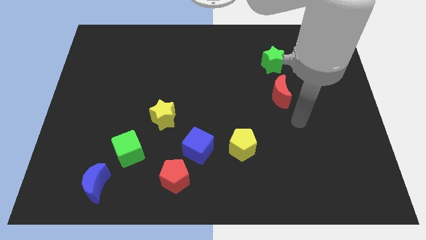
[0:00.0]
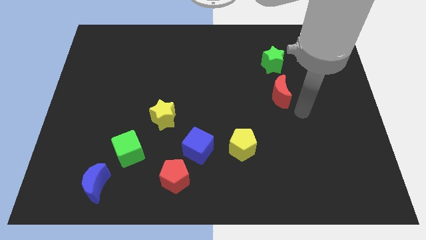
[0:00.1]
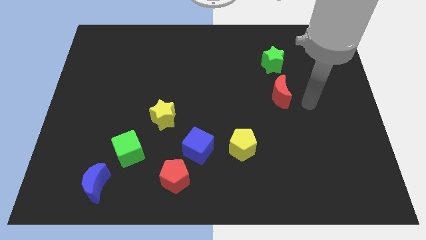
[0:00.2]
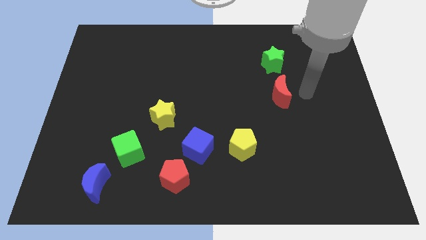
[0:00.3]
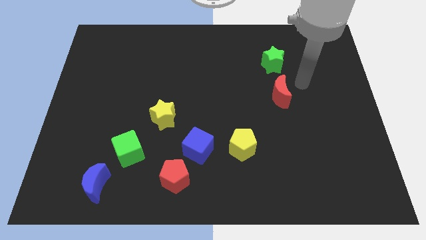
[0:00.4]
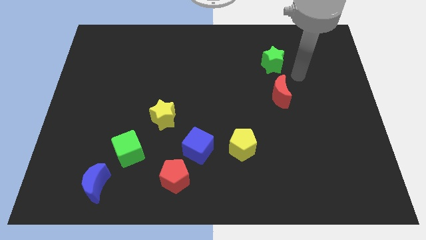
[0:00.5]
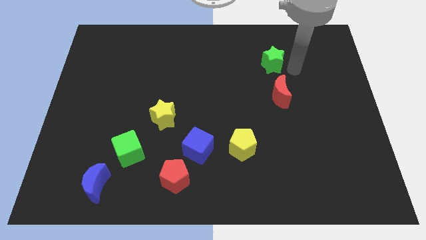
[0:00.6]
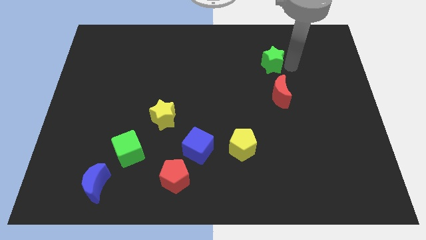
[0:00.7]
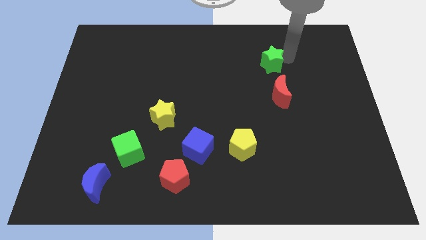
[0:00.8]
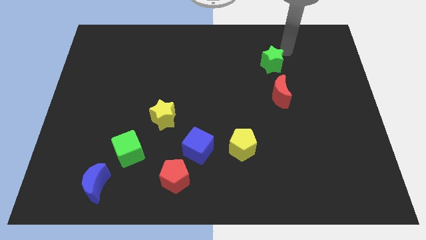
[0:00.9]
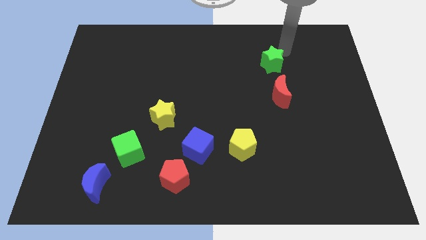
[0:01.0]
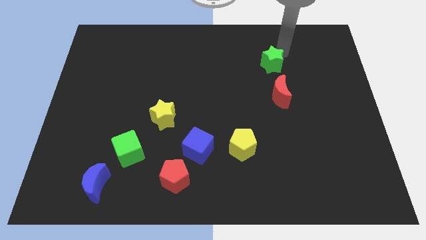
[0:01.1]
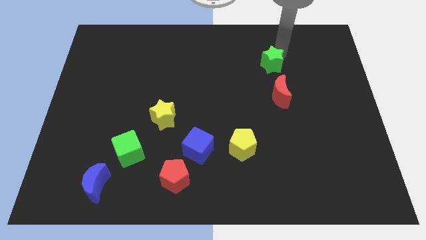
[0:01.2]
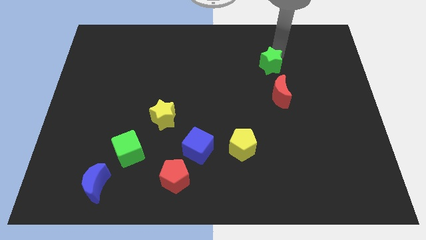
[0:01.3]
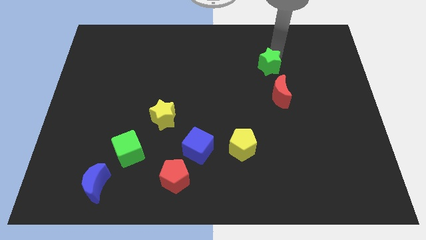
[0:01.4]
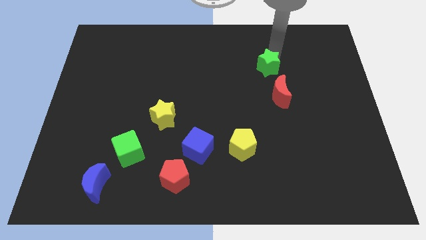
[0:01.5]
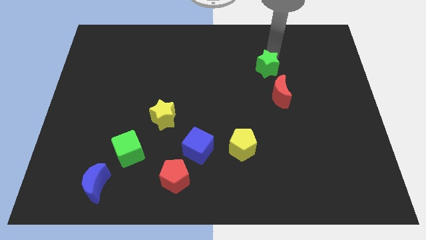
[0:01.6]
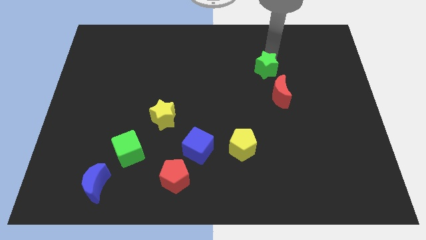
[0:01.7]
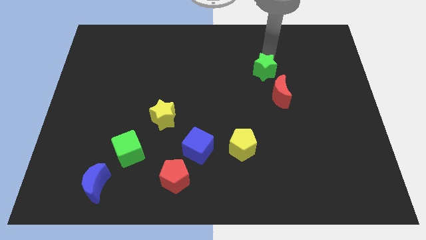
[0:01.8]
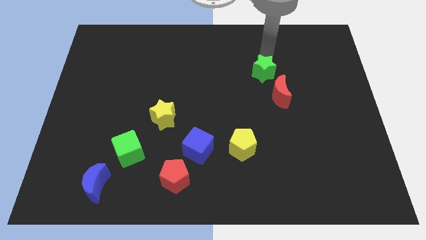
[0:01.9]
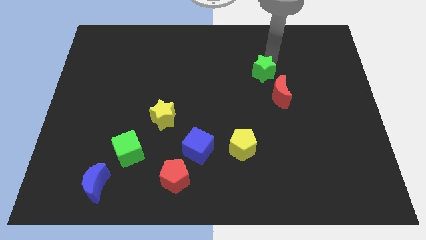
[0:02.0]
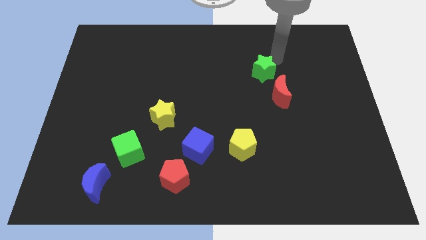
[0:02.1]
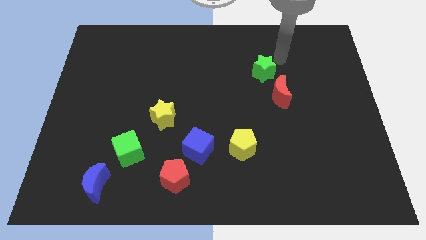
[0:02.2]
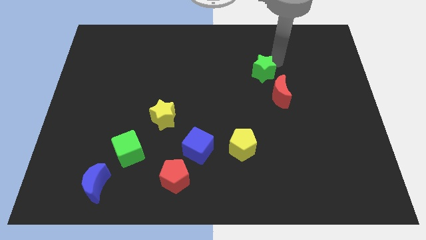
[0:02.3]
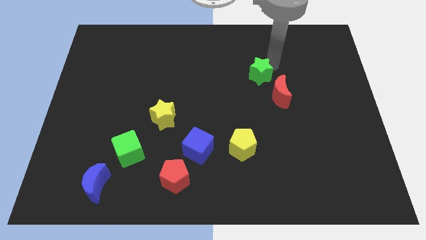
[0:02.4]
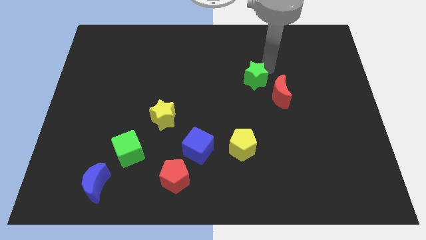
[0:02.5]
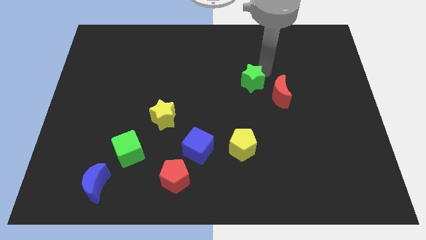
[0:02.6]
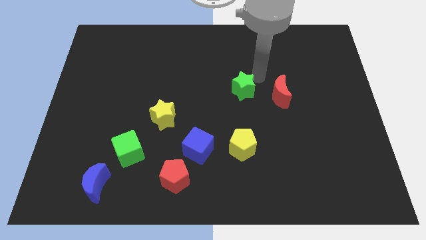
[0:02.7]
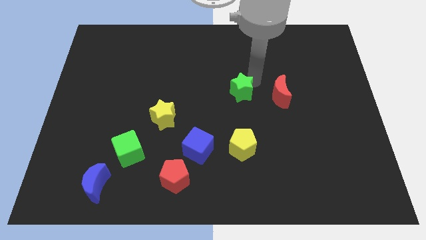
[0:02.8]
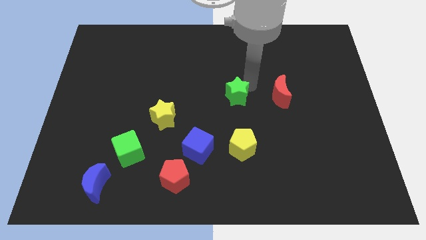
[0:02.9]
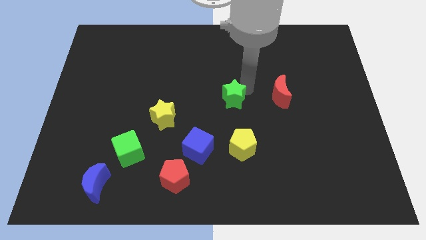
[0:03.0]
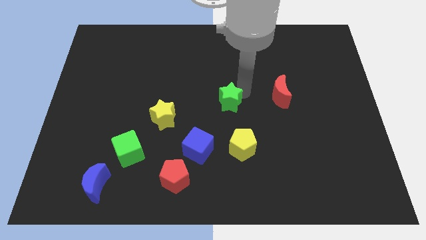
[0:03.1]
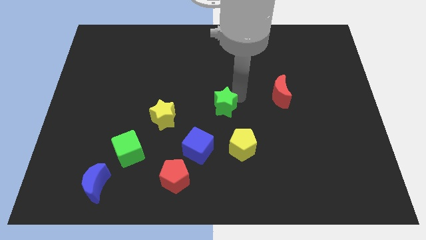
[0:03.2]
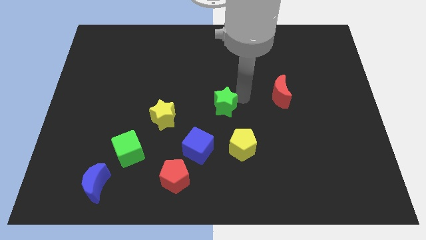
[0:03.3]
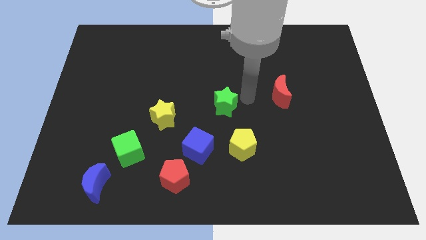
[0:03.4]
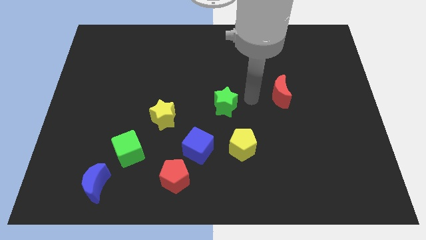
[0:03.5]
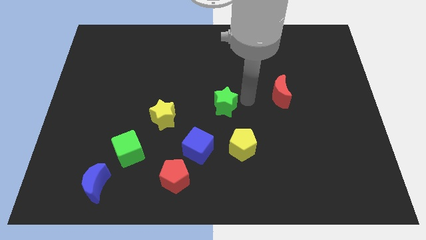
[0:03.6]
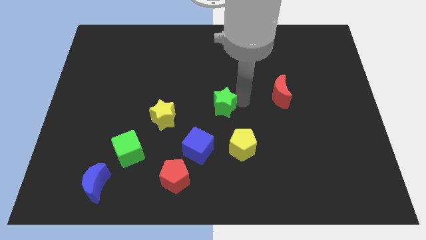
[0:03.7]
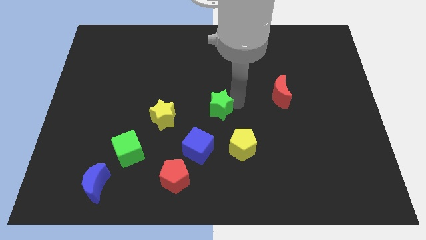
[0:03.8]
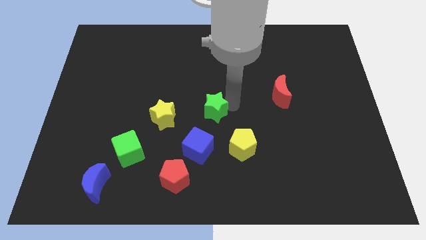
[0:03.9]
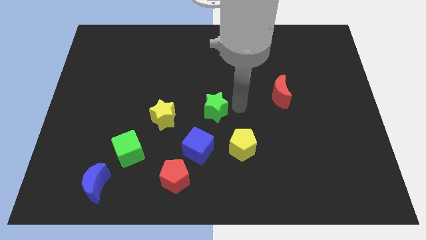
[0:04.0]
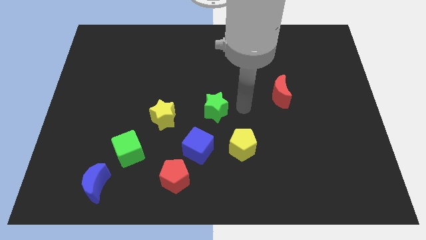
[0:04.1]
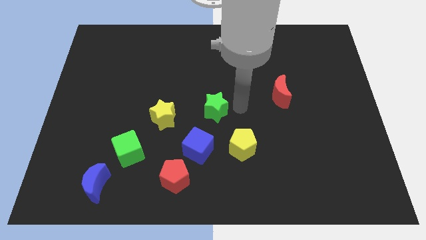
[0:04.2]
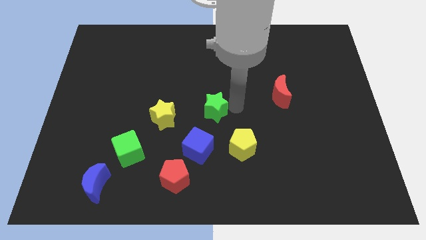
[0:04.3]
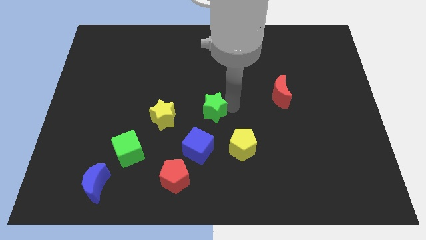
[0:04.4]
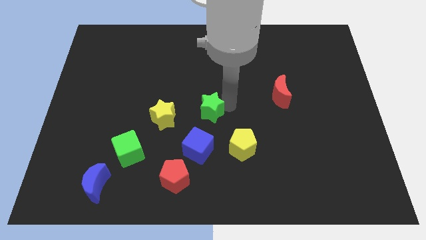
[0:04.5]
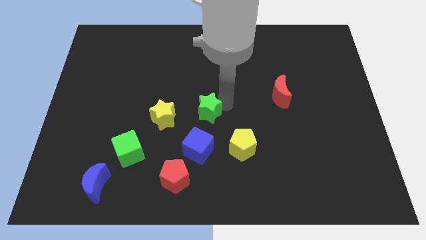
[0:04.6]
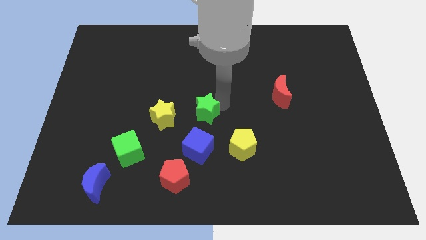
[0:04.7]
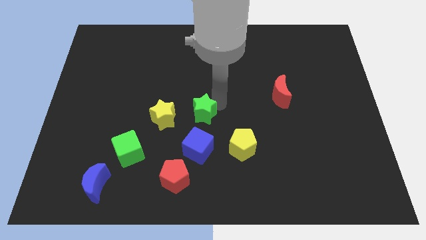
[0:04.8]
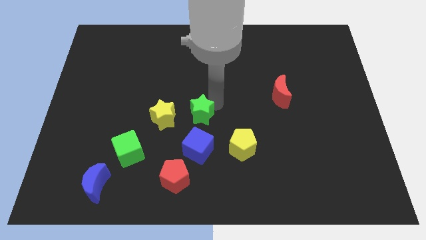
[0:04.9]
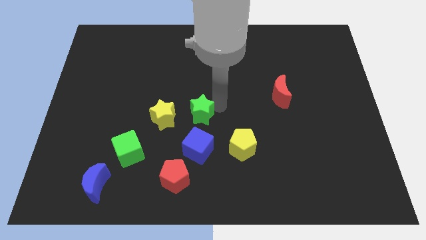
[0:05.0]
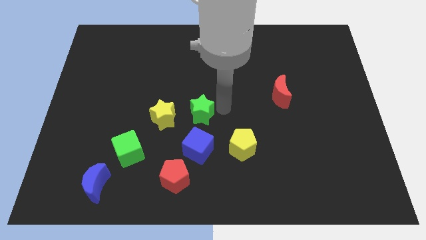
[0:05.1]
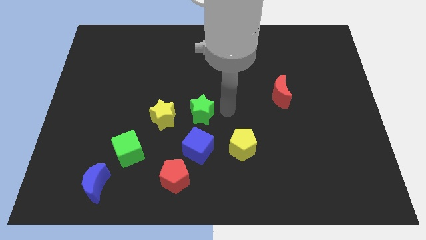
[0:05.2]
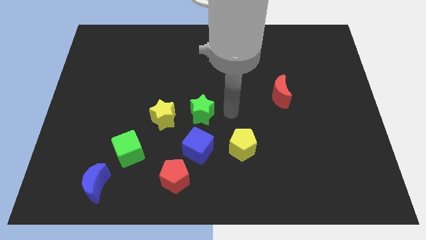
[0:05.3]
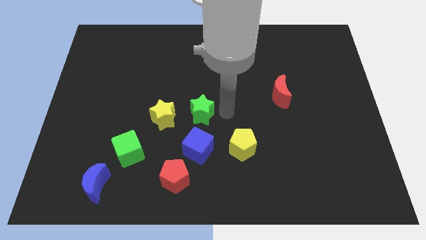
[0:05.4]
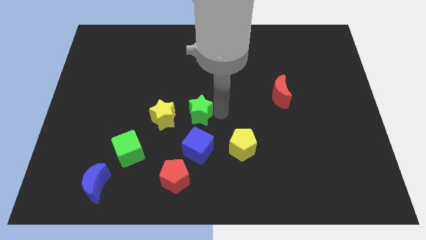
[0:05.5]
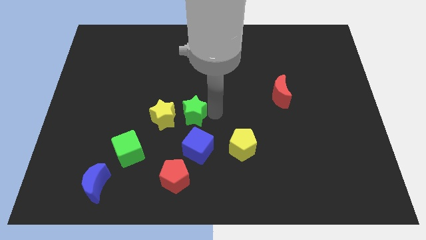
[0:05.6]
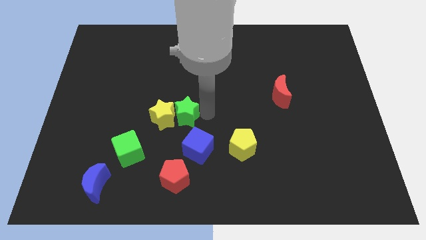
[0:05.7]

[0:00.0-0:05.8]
put the green star next to the yellow star

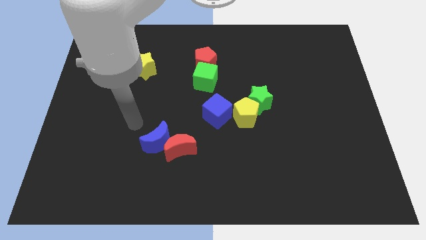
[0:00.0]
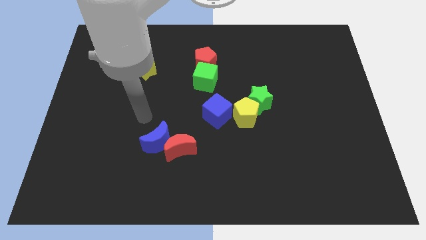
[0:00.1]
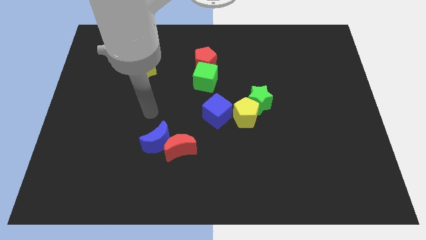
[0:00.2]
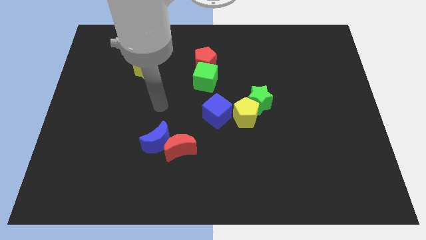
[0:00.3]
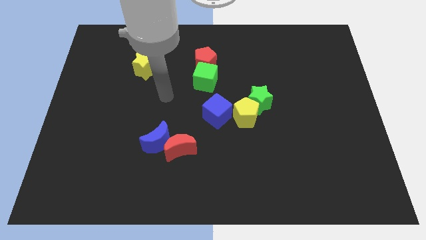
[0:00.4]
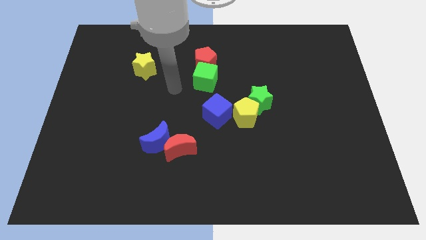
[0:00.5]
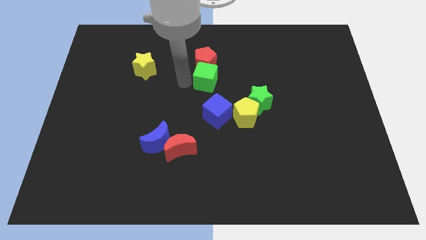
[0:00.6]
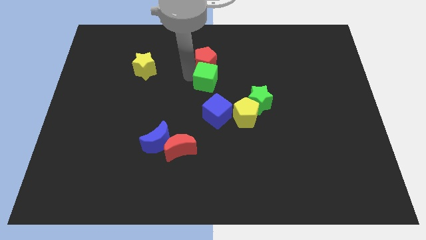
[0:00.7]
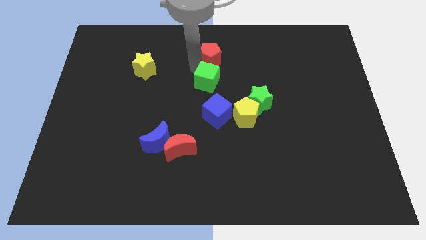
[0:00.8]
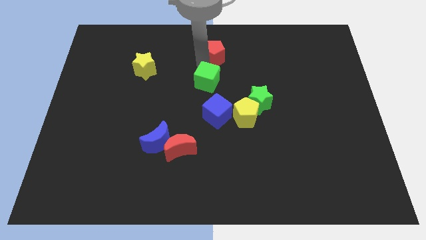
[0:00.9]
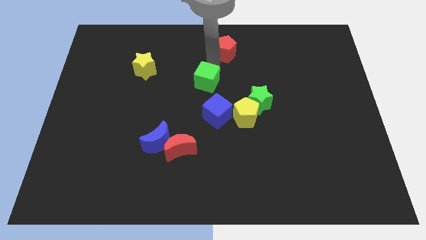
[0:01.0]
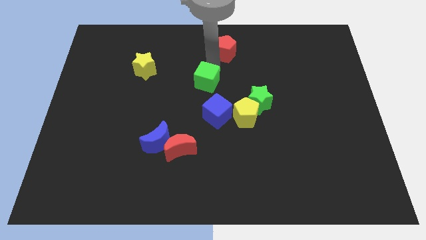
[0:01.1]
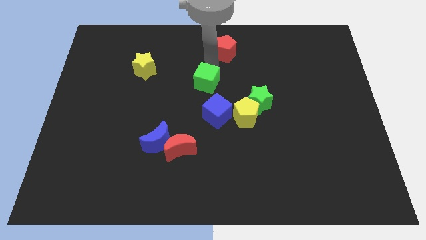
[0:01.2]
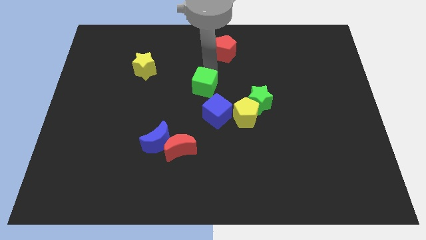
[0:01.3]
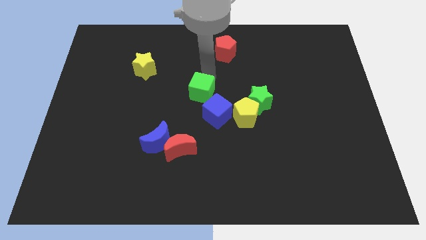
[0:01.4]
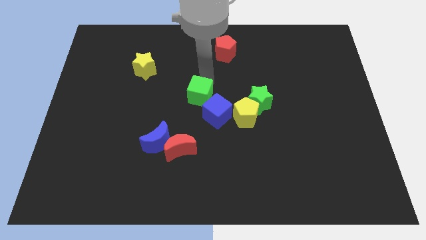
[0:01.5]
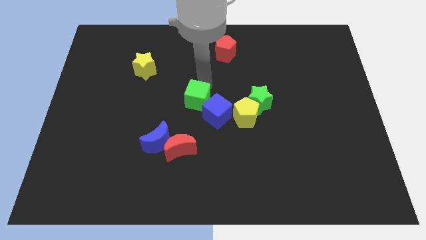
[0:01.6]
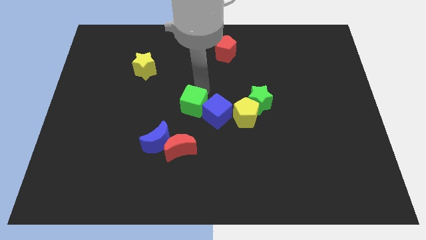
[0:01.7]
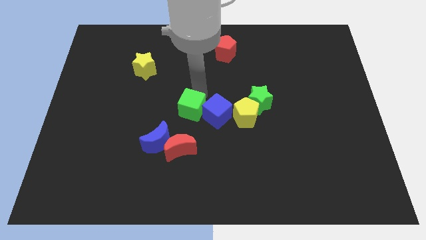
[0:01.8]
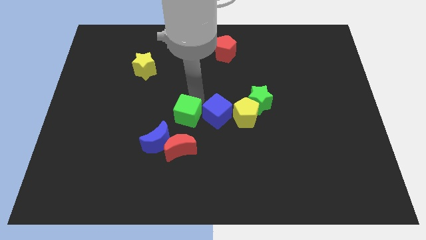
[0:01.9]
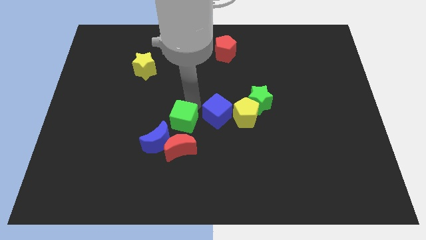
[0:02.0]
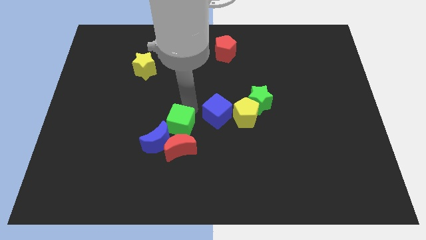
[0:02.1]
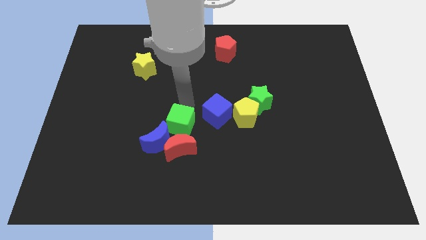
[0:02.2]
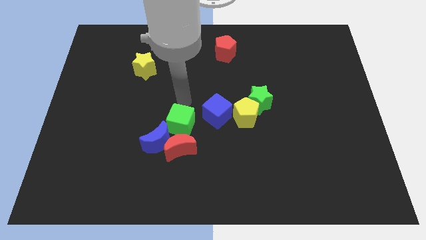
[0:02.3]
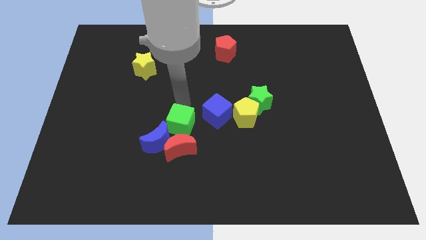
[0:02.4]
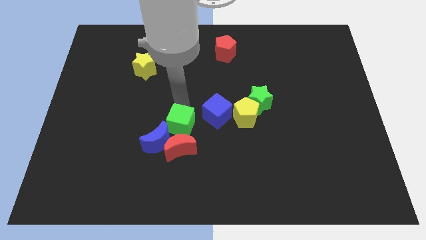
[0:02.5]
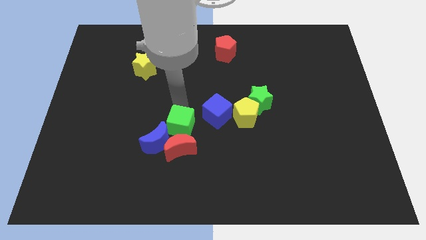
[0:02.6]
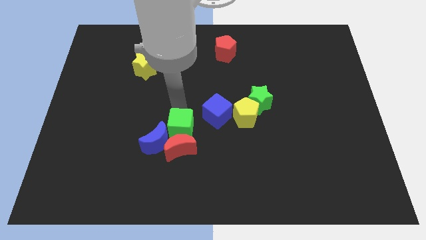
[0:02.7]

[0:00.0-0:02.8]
push the green cube towards the red moon
